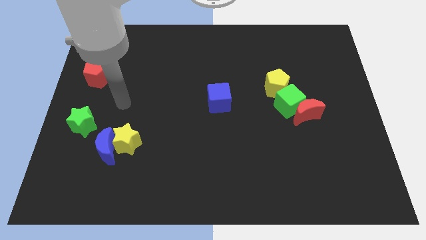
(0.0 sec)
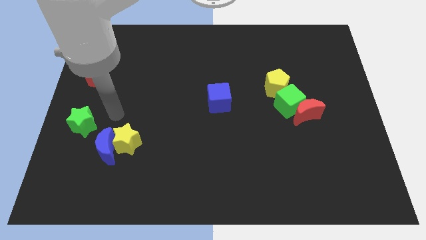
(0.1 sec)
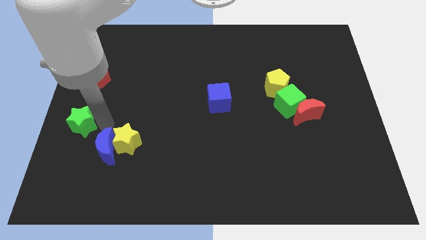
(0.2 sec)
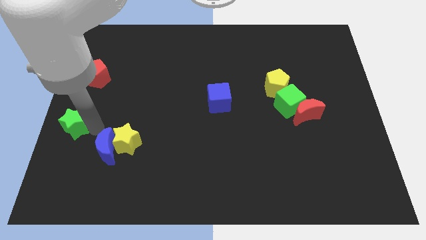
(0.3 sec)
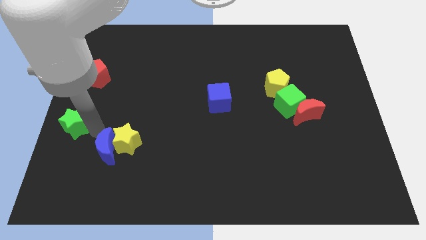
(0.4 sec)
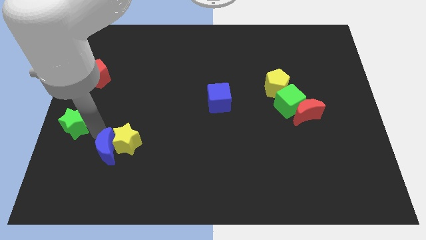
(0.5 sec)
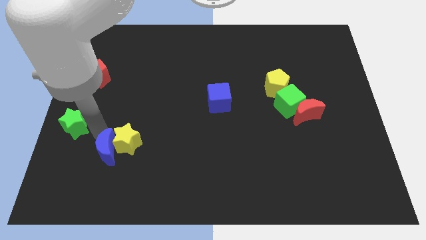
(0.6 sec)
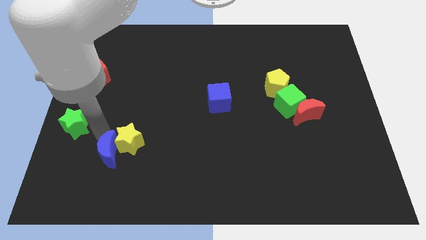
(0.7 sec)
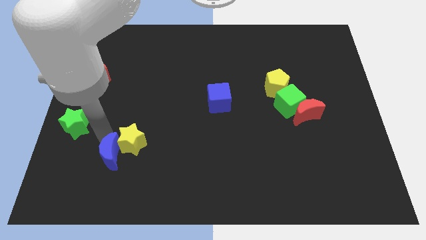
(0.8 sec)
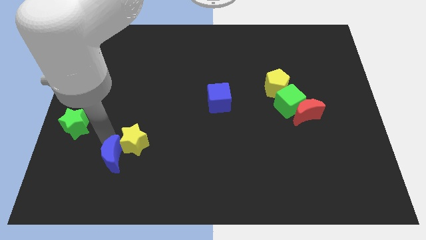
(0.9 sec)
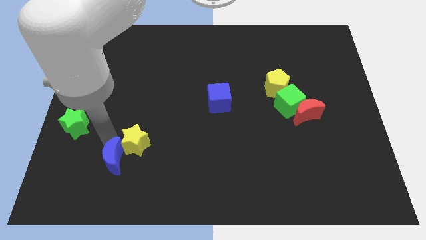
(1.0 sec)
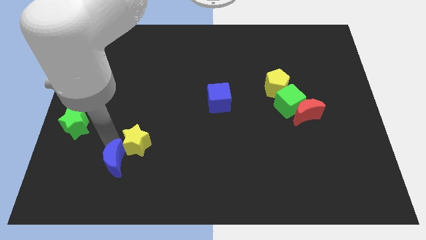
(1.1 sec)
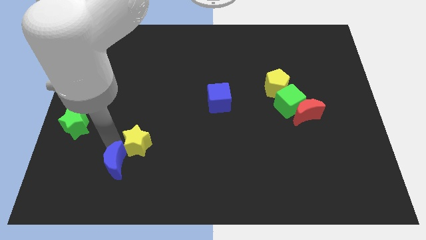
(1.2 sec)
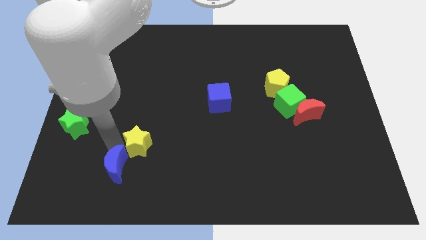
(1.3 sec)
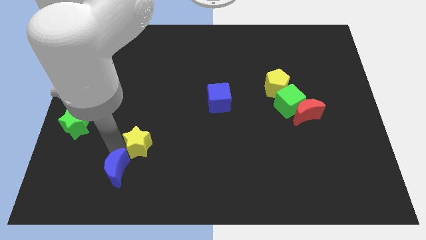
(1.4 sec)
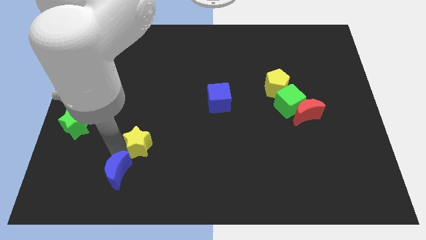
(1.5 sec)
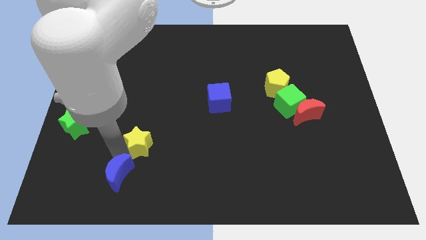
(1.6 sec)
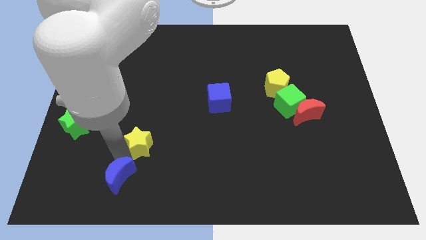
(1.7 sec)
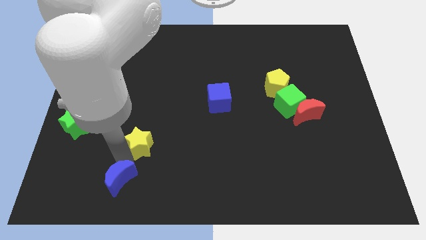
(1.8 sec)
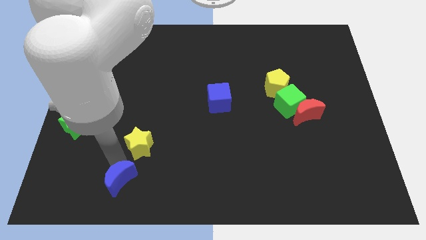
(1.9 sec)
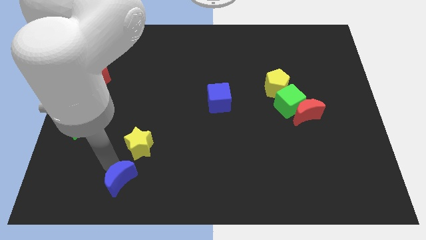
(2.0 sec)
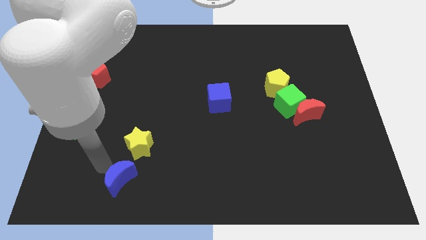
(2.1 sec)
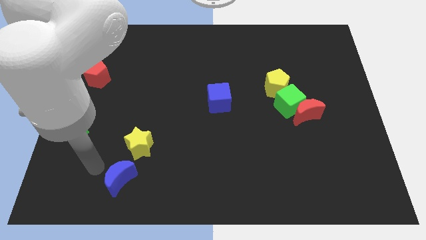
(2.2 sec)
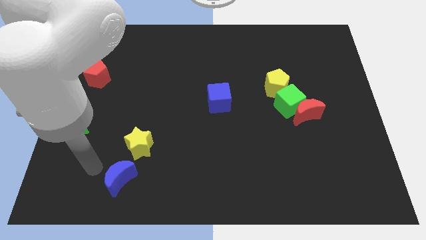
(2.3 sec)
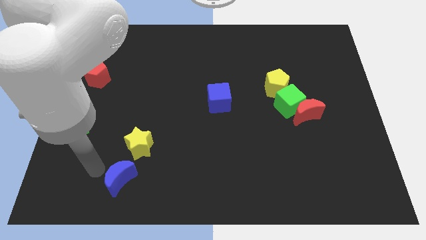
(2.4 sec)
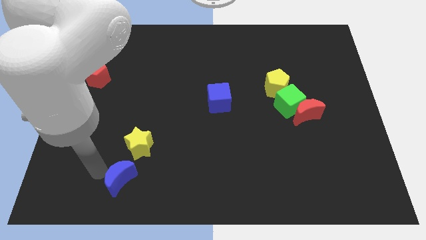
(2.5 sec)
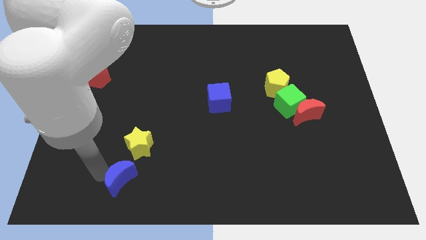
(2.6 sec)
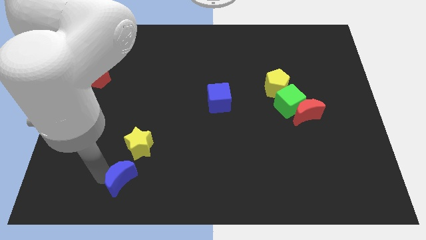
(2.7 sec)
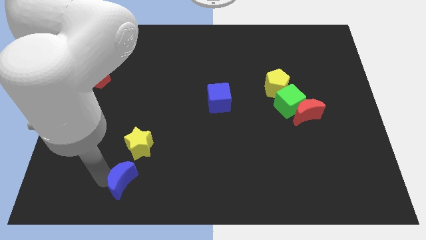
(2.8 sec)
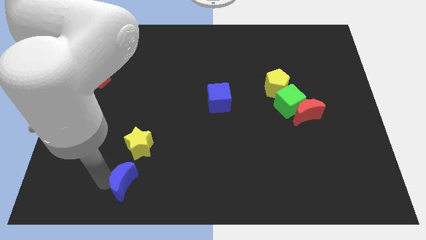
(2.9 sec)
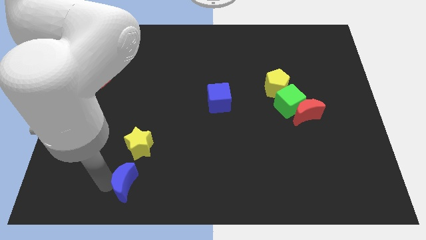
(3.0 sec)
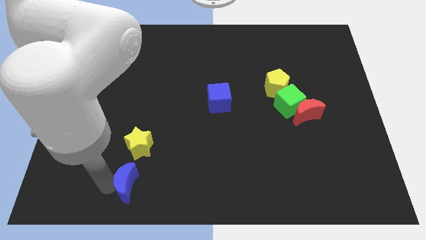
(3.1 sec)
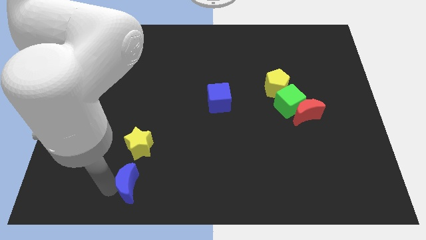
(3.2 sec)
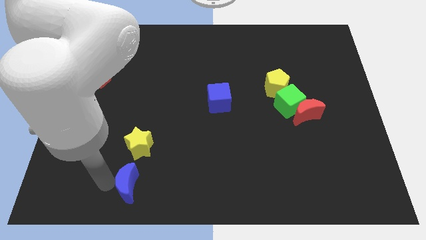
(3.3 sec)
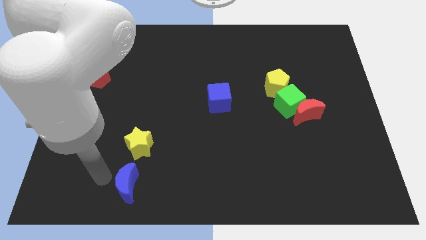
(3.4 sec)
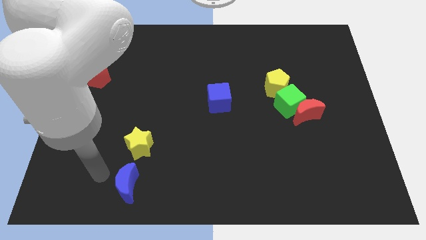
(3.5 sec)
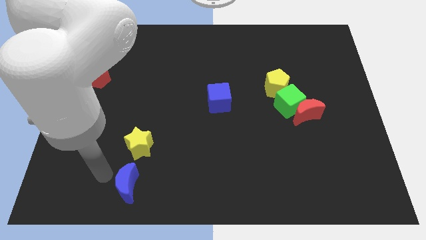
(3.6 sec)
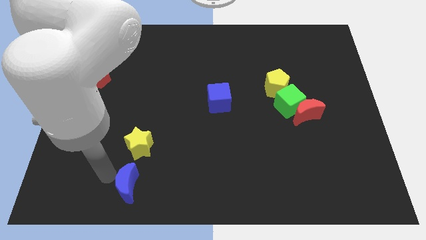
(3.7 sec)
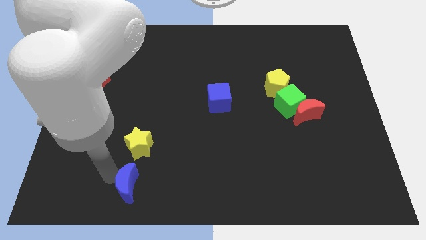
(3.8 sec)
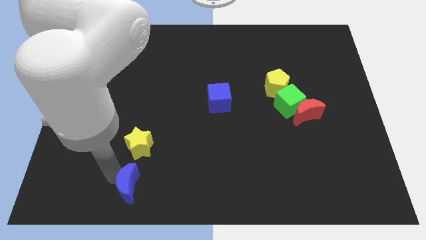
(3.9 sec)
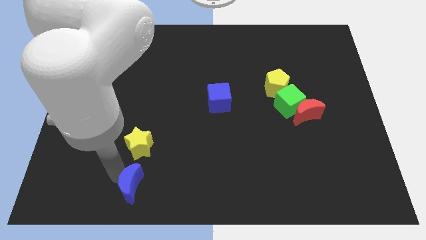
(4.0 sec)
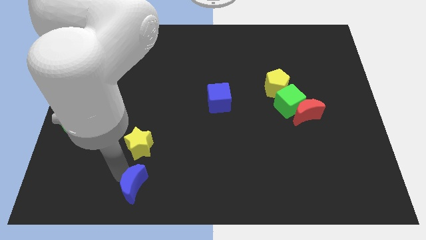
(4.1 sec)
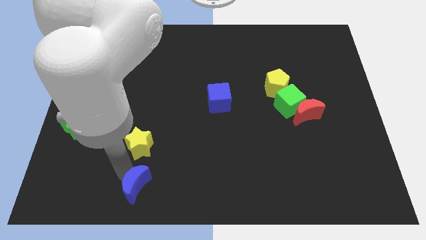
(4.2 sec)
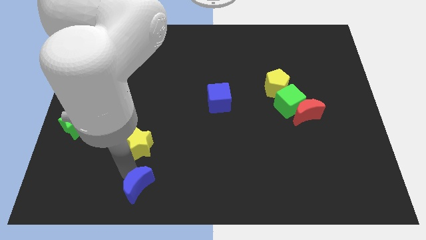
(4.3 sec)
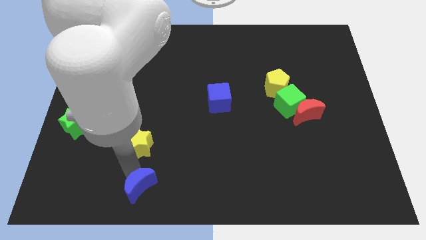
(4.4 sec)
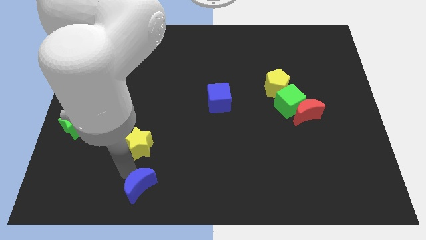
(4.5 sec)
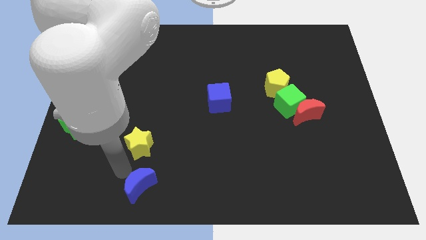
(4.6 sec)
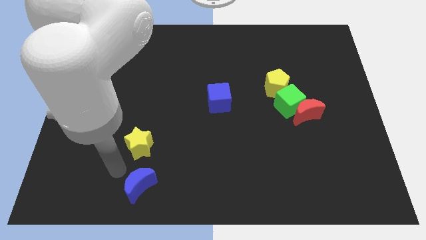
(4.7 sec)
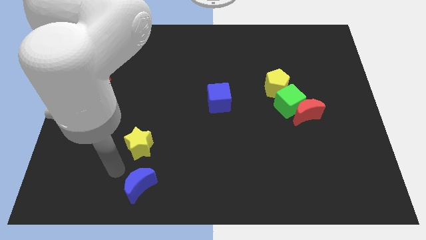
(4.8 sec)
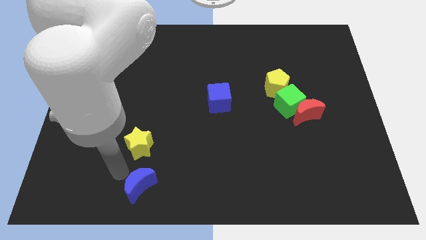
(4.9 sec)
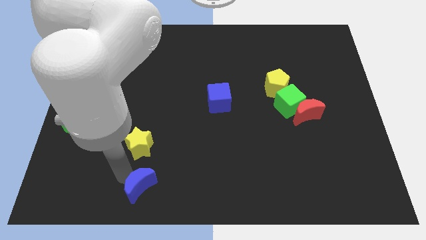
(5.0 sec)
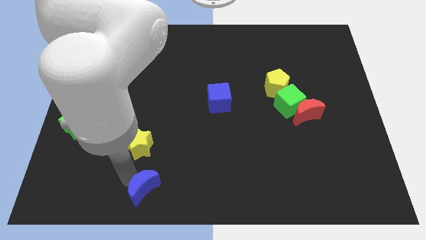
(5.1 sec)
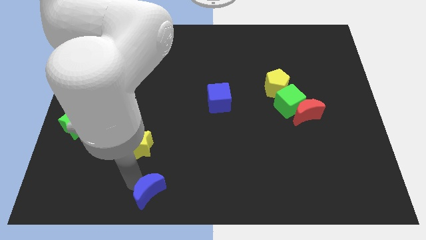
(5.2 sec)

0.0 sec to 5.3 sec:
push the blue moon to the bottom side

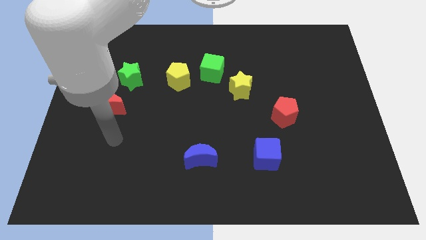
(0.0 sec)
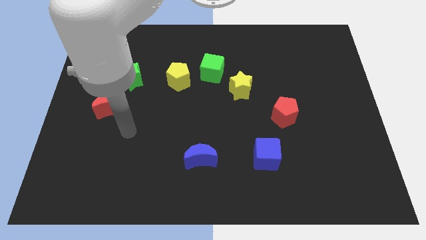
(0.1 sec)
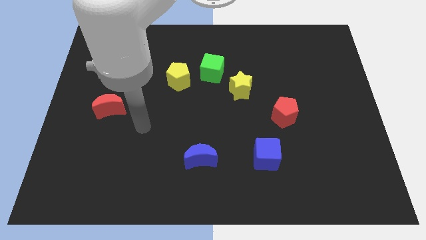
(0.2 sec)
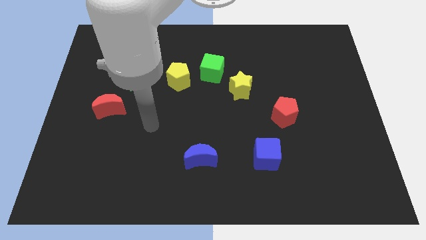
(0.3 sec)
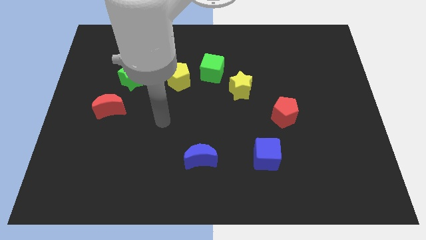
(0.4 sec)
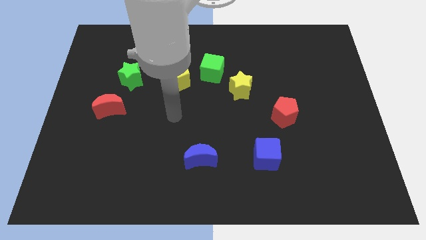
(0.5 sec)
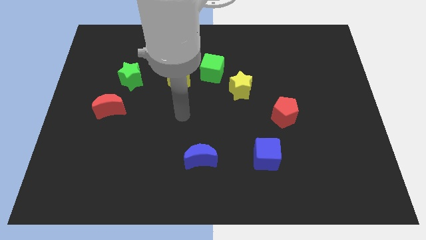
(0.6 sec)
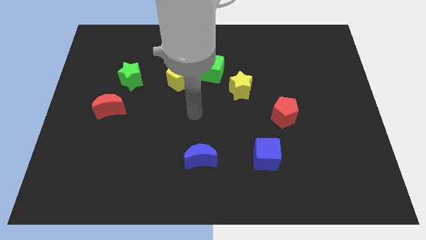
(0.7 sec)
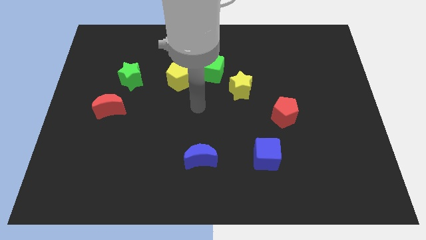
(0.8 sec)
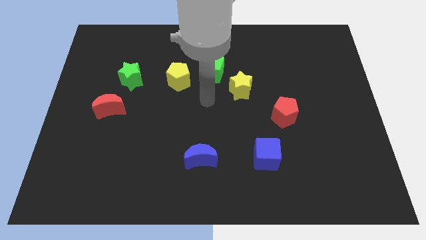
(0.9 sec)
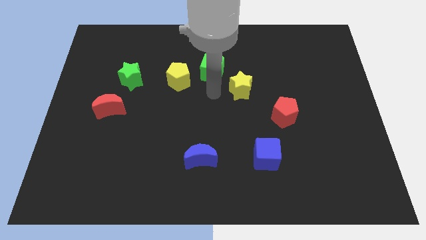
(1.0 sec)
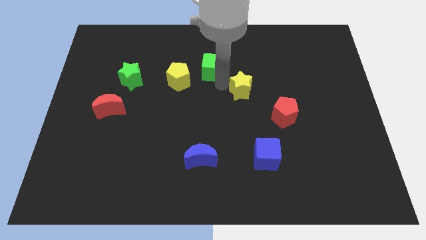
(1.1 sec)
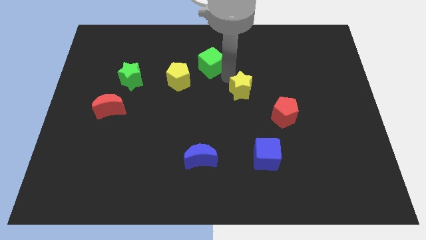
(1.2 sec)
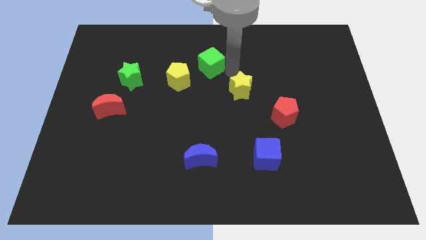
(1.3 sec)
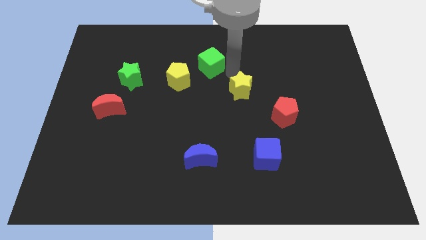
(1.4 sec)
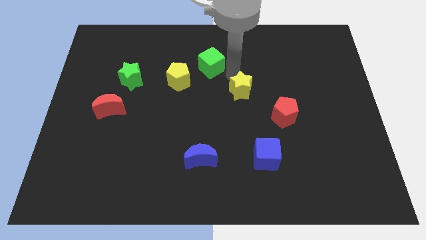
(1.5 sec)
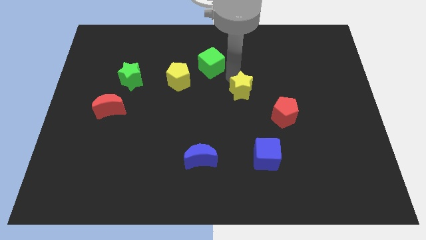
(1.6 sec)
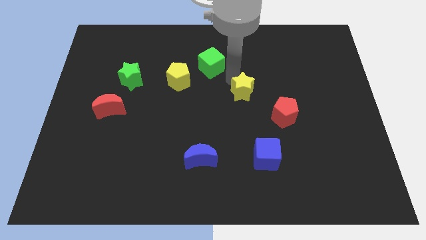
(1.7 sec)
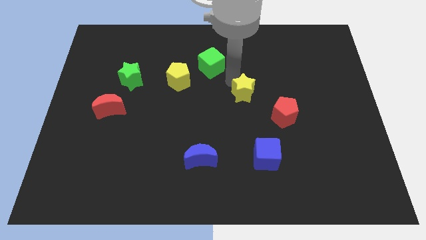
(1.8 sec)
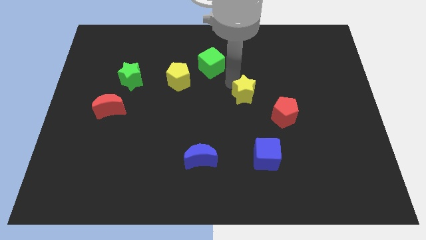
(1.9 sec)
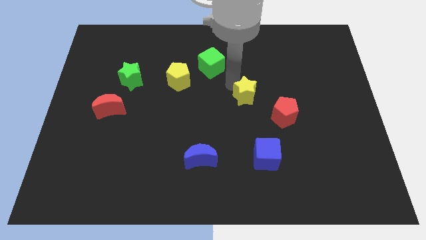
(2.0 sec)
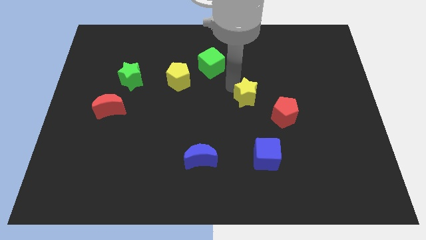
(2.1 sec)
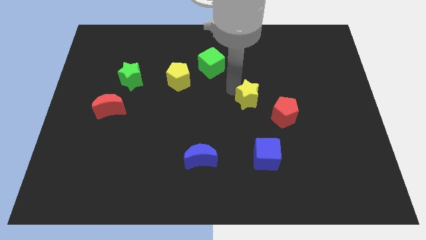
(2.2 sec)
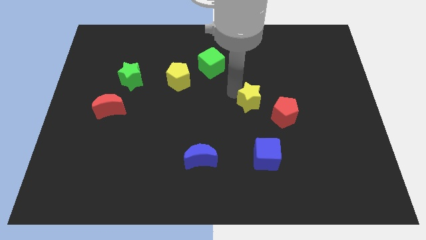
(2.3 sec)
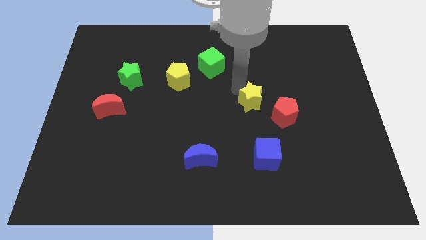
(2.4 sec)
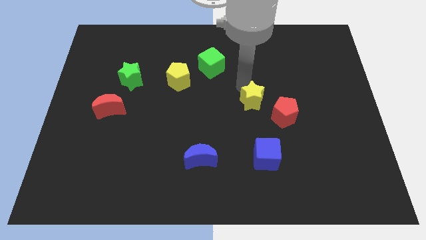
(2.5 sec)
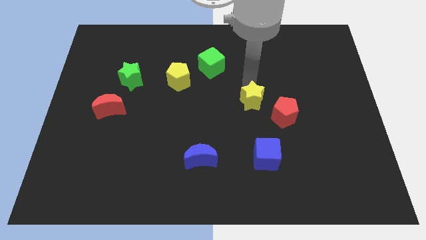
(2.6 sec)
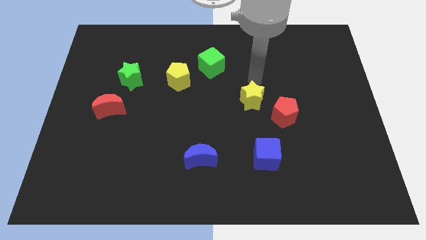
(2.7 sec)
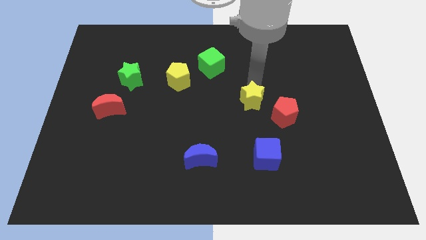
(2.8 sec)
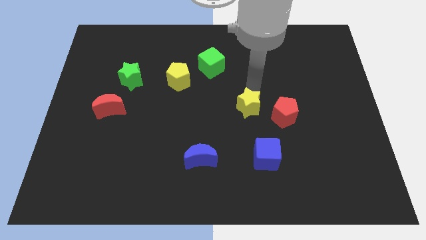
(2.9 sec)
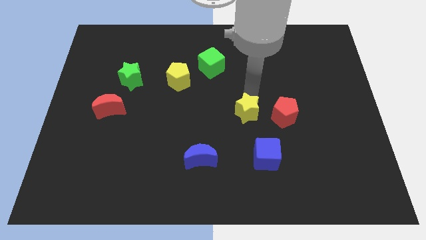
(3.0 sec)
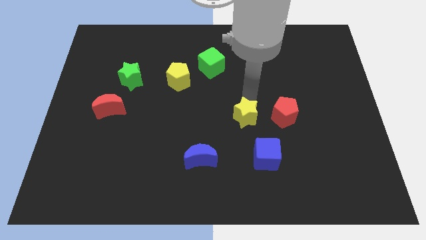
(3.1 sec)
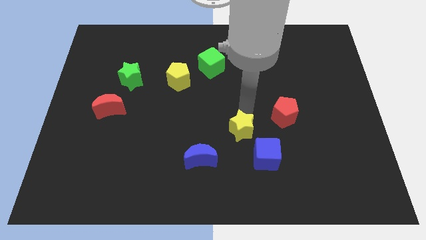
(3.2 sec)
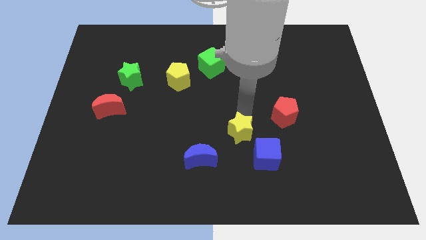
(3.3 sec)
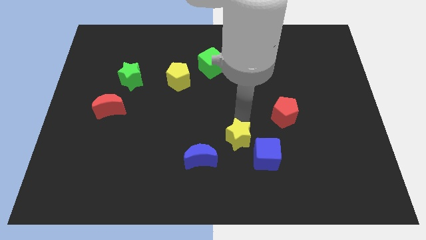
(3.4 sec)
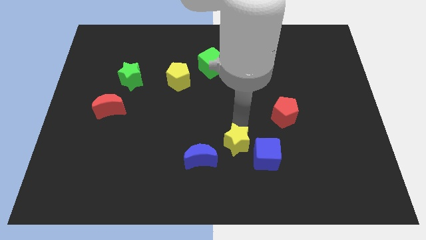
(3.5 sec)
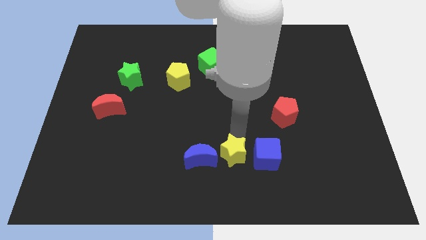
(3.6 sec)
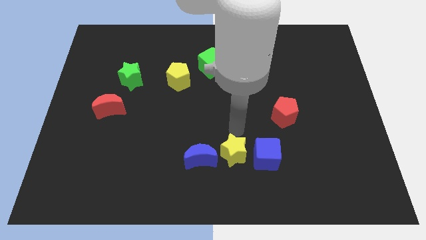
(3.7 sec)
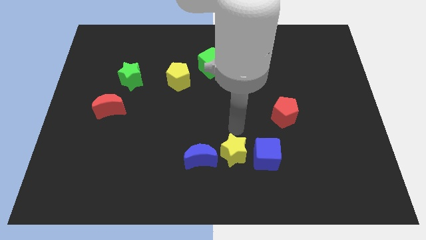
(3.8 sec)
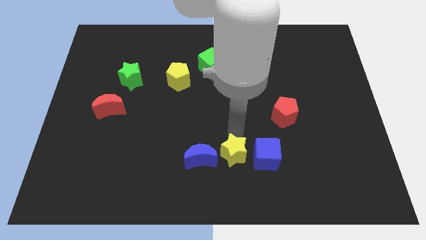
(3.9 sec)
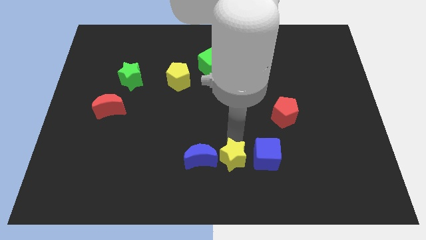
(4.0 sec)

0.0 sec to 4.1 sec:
push the yellow star to the bottom
